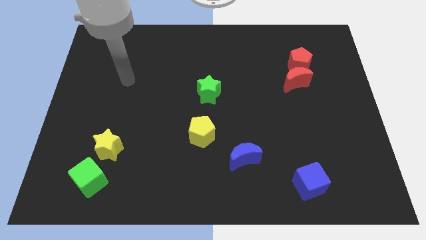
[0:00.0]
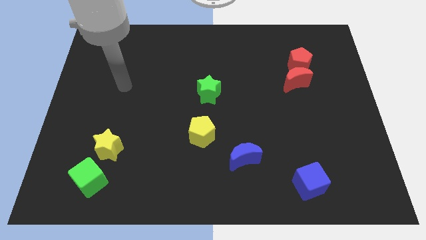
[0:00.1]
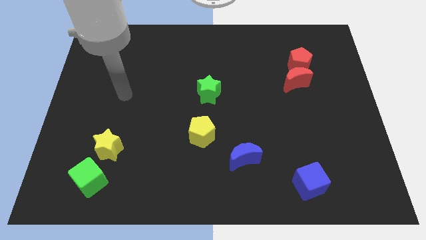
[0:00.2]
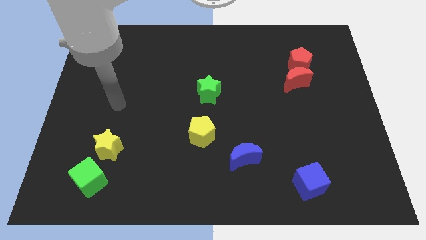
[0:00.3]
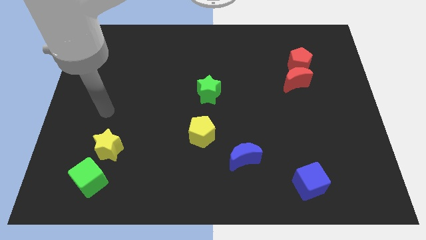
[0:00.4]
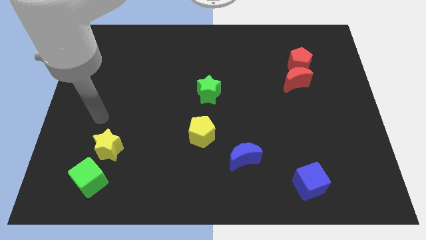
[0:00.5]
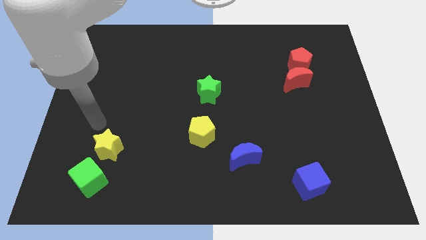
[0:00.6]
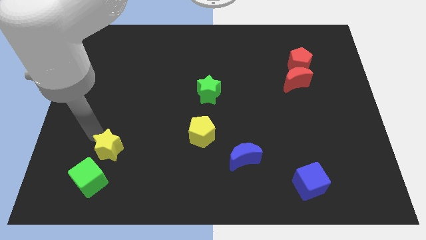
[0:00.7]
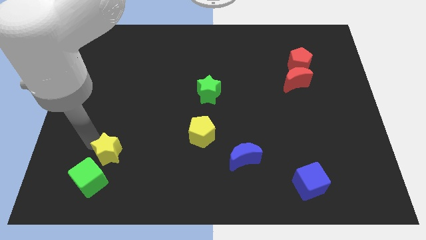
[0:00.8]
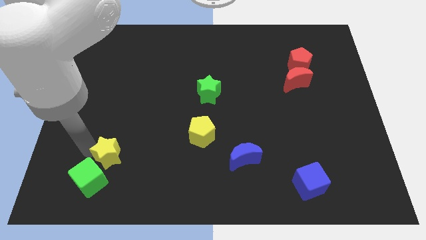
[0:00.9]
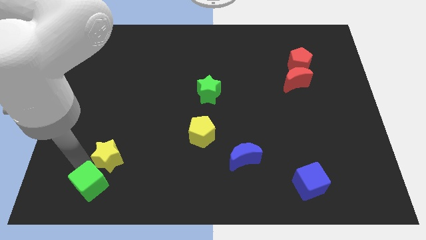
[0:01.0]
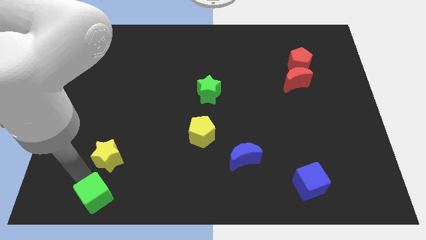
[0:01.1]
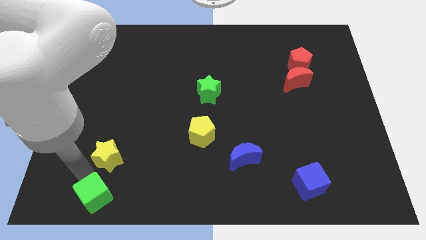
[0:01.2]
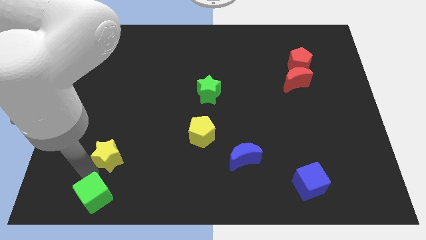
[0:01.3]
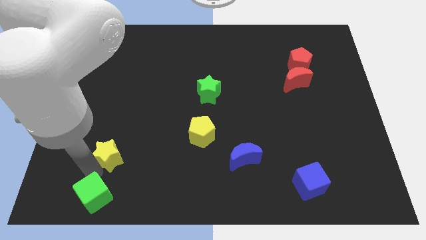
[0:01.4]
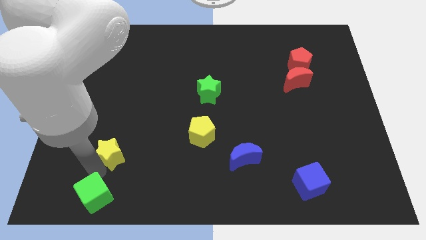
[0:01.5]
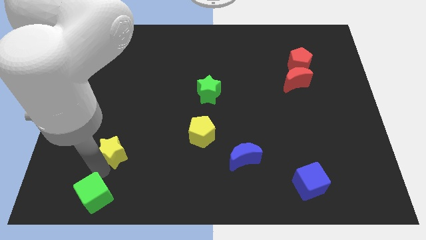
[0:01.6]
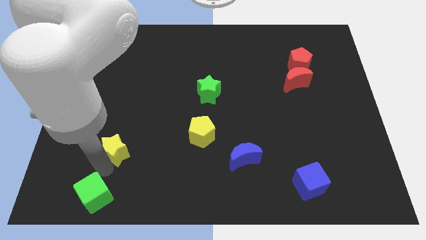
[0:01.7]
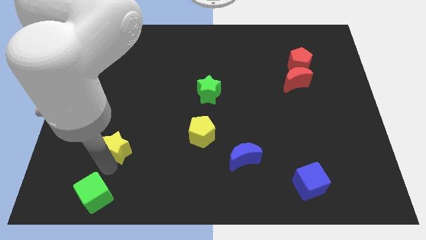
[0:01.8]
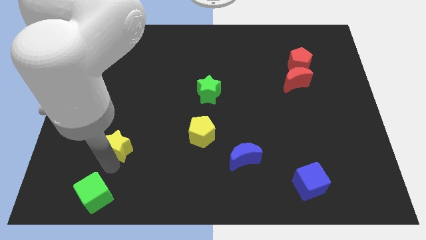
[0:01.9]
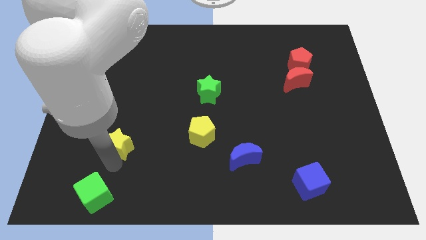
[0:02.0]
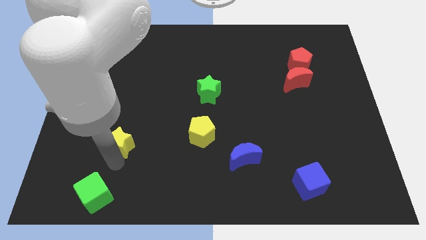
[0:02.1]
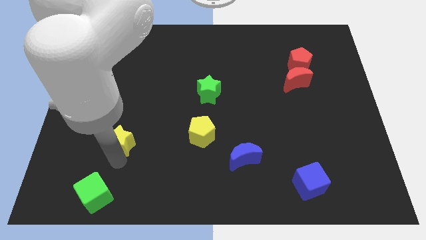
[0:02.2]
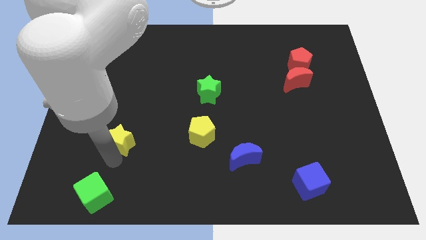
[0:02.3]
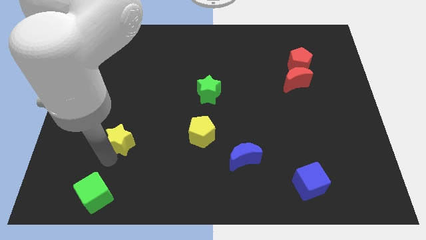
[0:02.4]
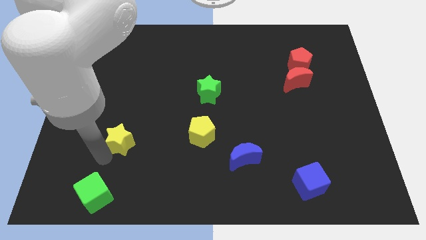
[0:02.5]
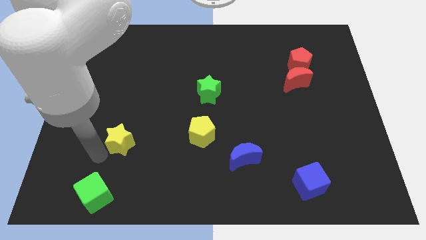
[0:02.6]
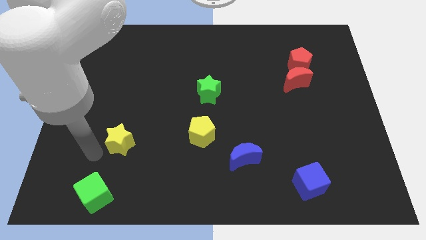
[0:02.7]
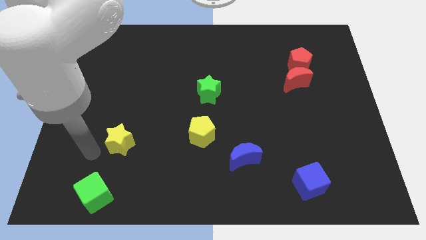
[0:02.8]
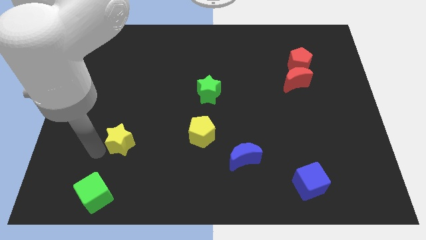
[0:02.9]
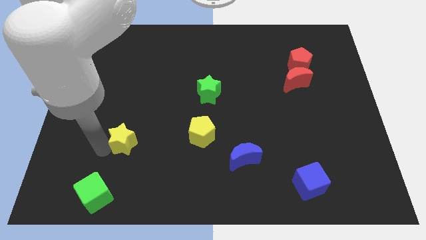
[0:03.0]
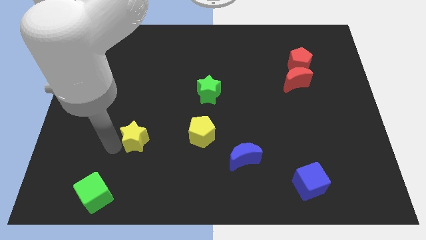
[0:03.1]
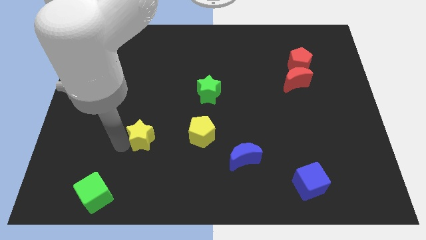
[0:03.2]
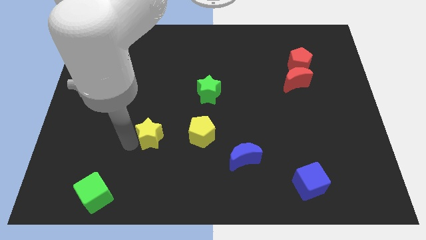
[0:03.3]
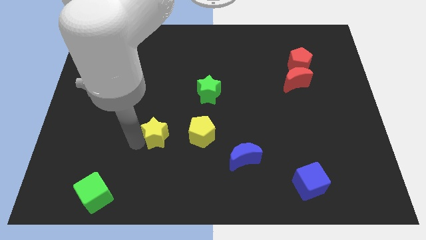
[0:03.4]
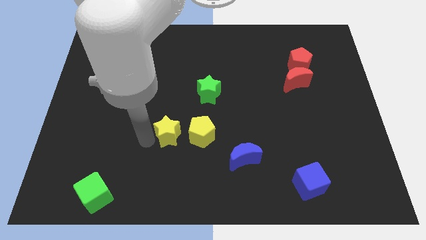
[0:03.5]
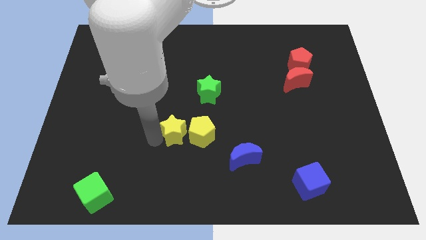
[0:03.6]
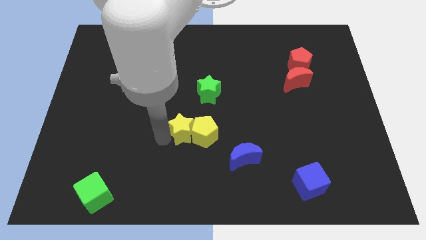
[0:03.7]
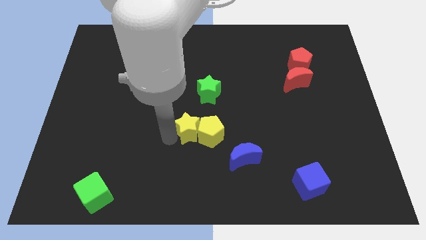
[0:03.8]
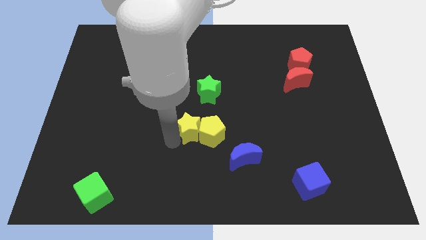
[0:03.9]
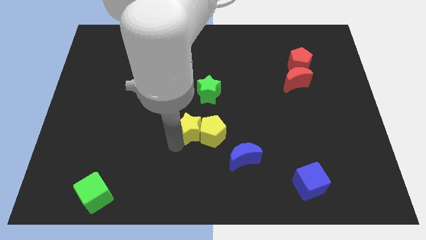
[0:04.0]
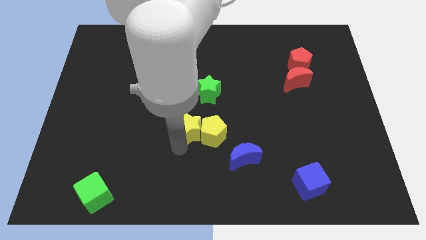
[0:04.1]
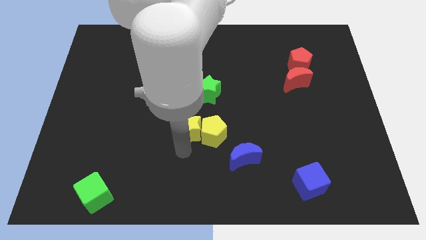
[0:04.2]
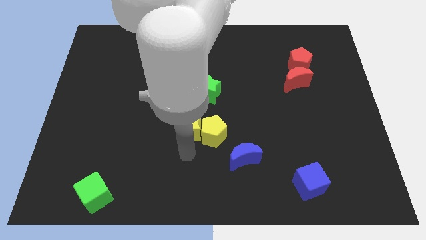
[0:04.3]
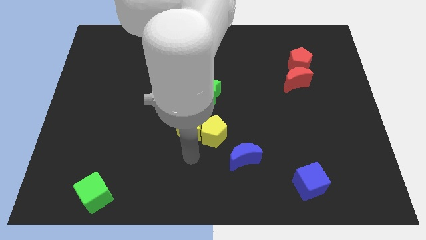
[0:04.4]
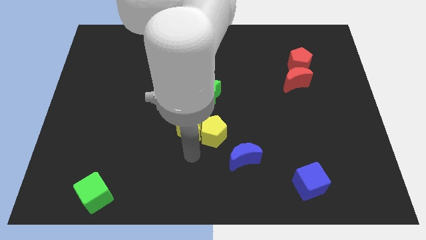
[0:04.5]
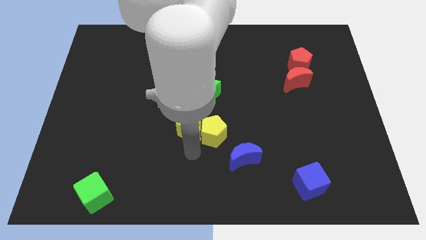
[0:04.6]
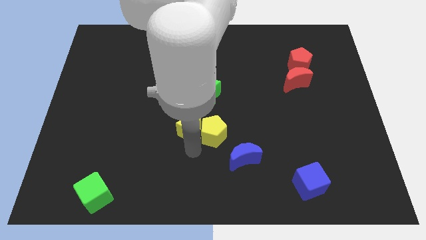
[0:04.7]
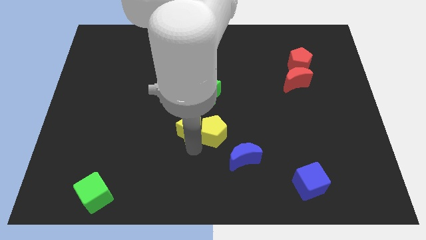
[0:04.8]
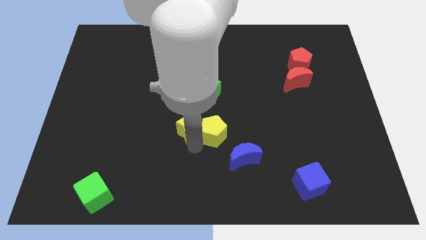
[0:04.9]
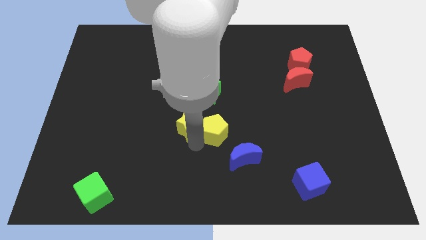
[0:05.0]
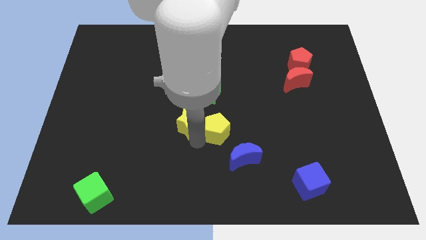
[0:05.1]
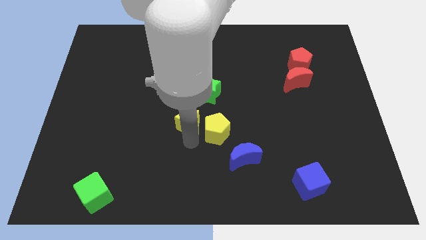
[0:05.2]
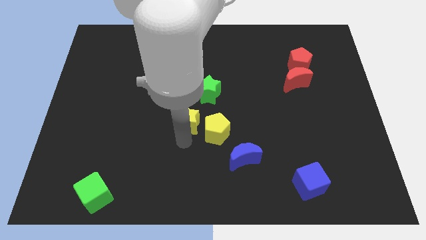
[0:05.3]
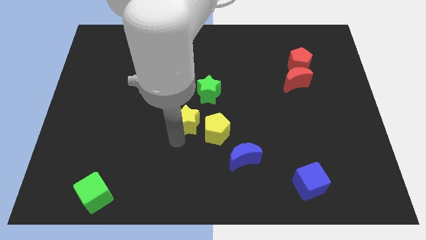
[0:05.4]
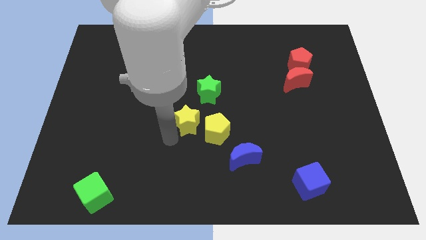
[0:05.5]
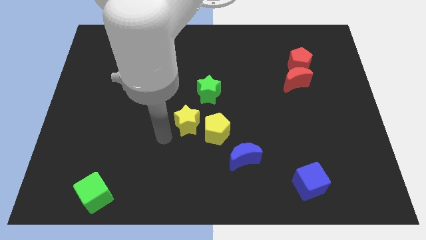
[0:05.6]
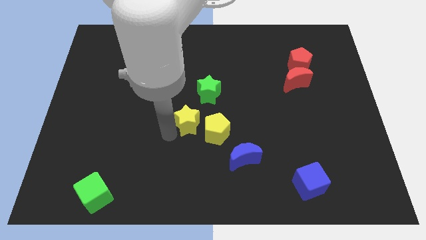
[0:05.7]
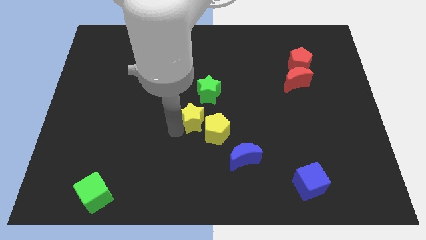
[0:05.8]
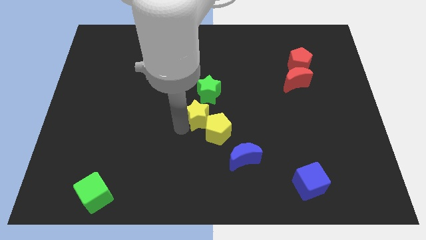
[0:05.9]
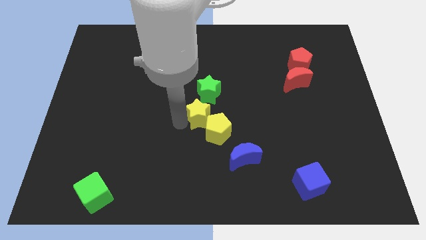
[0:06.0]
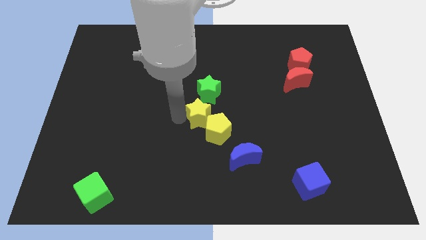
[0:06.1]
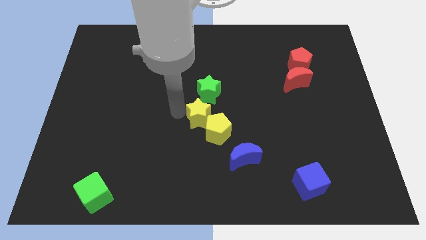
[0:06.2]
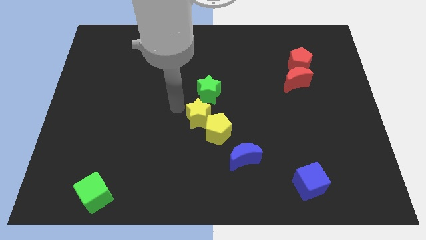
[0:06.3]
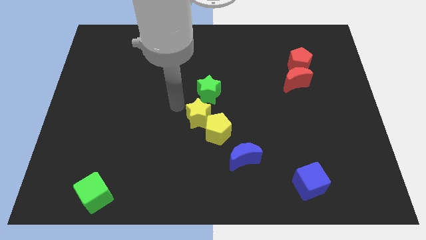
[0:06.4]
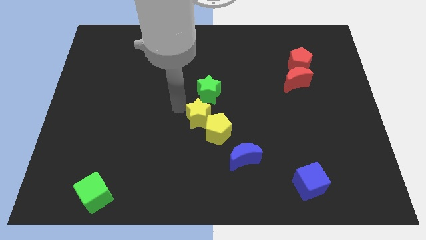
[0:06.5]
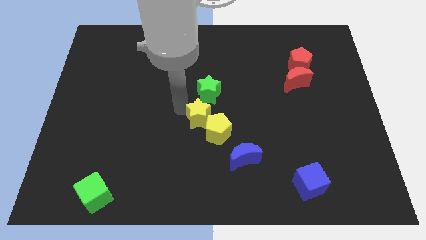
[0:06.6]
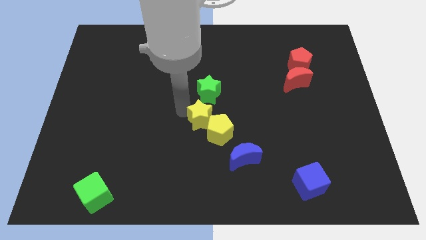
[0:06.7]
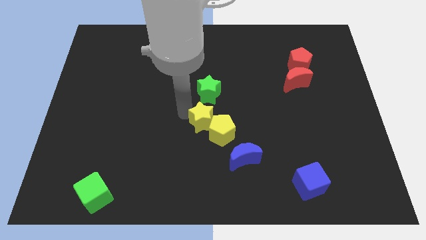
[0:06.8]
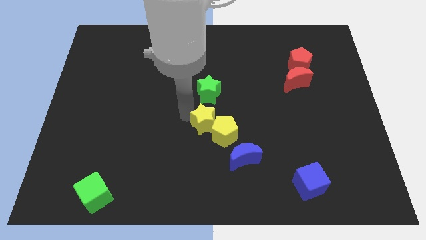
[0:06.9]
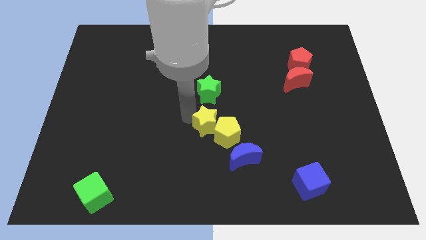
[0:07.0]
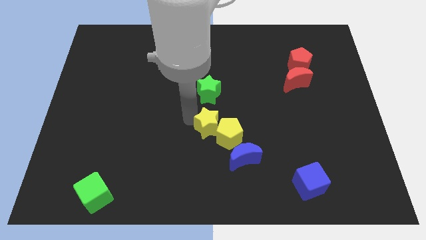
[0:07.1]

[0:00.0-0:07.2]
slide the yellow star right

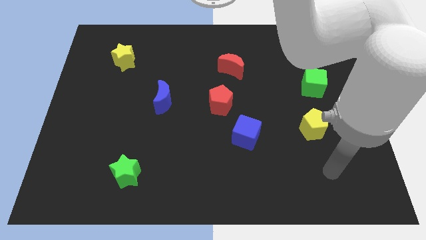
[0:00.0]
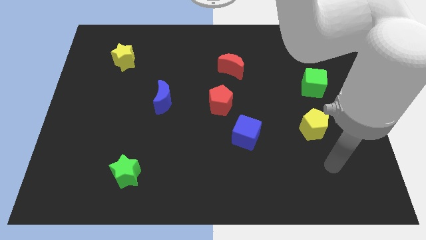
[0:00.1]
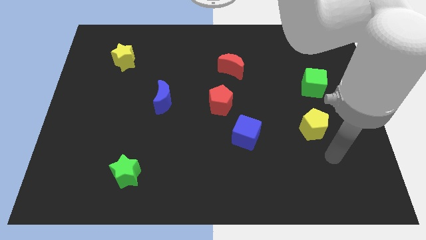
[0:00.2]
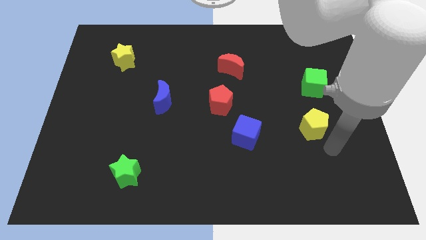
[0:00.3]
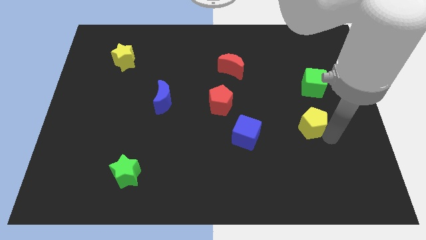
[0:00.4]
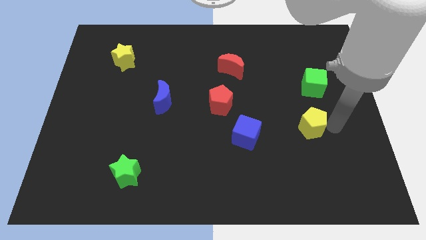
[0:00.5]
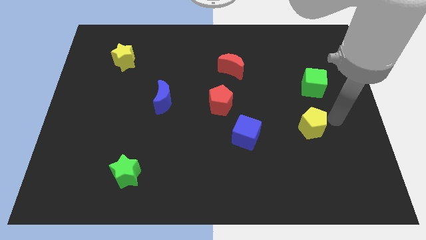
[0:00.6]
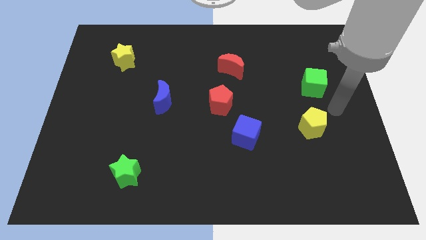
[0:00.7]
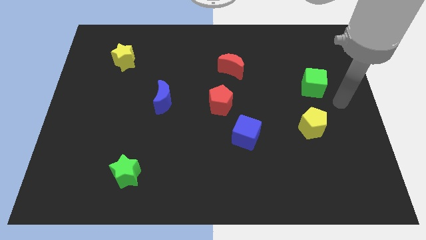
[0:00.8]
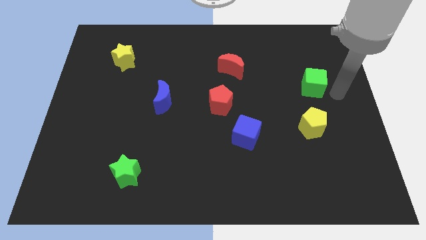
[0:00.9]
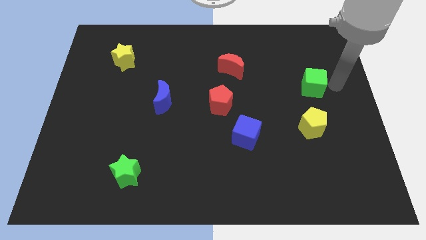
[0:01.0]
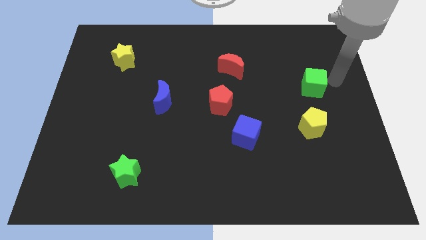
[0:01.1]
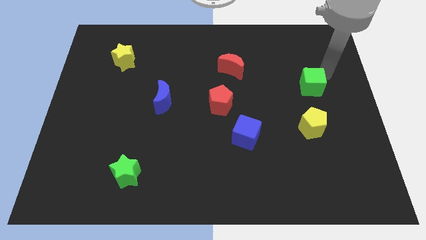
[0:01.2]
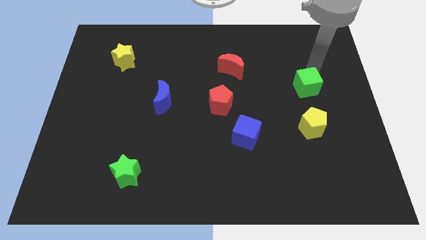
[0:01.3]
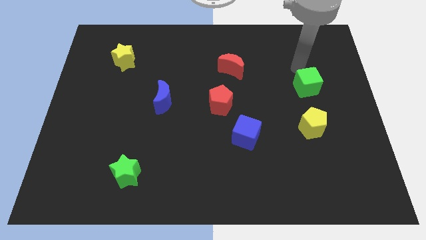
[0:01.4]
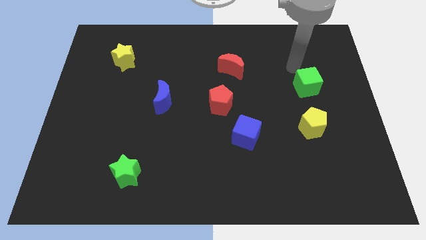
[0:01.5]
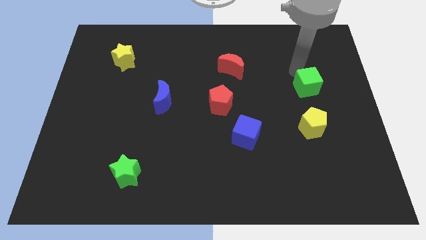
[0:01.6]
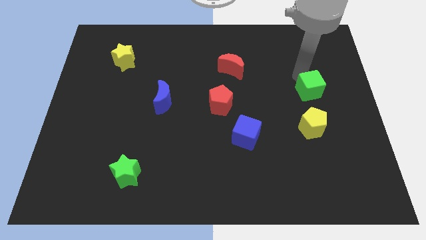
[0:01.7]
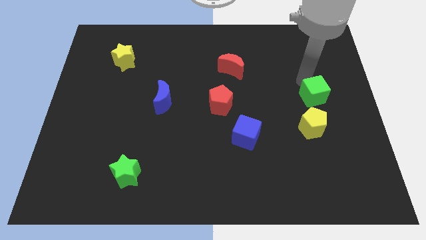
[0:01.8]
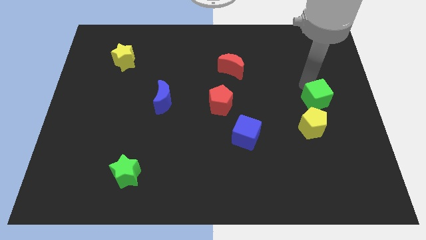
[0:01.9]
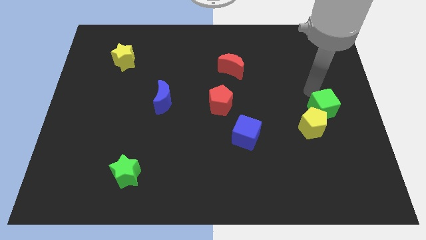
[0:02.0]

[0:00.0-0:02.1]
slightly move the green cube downwards
